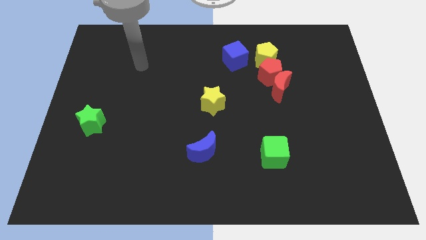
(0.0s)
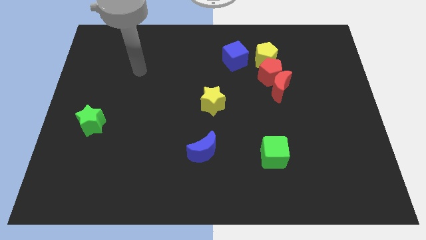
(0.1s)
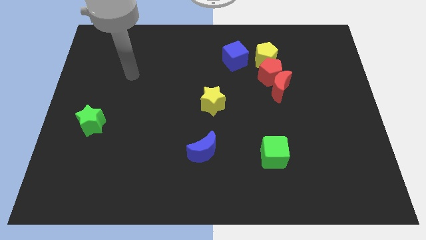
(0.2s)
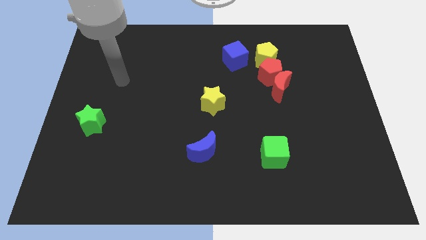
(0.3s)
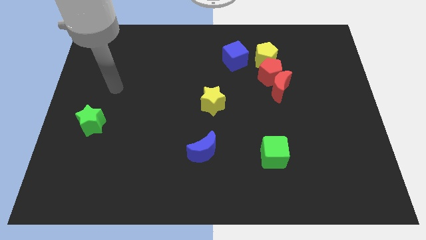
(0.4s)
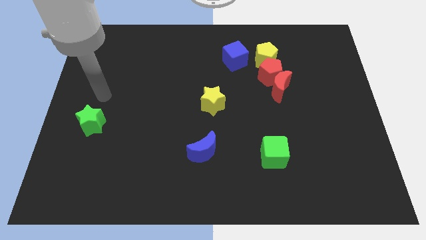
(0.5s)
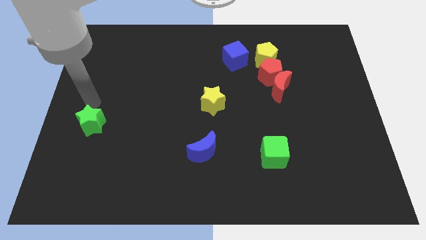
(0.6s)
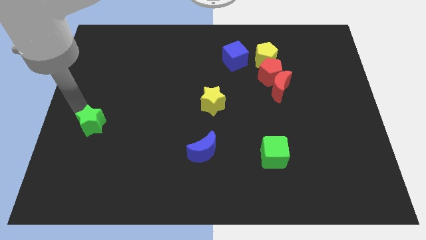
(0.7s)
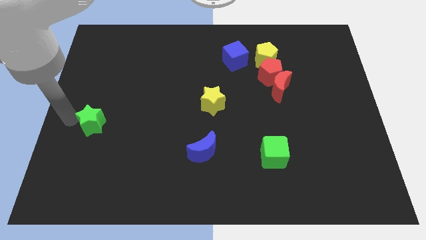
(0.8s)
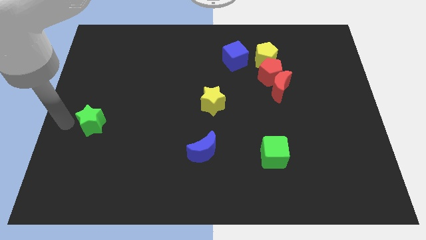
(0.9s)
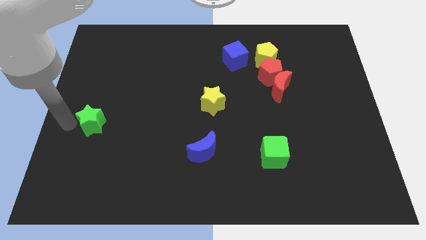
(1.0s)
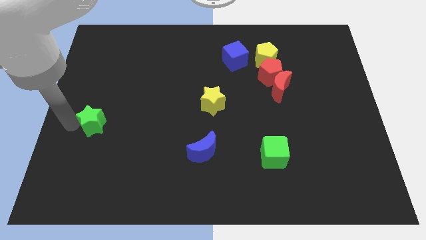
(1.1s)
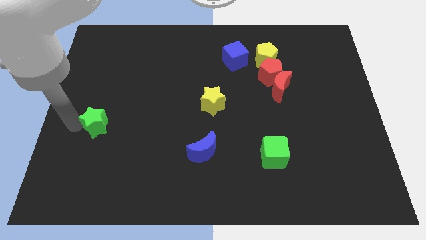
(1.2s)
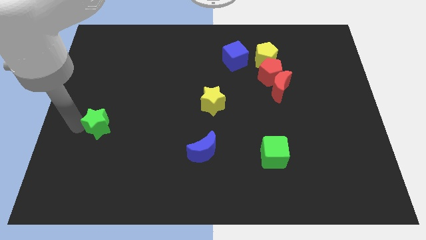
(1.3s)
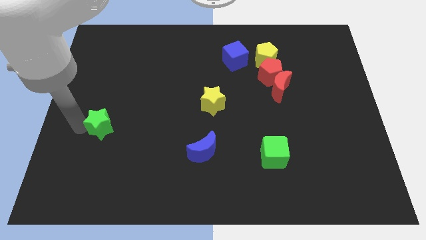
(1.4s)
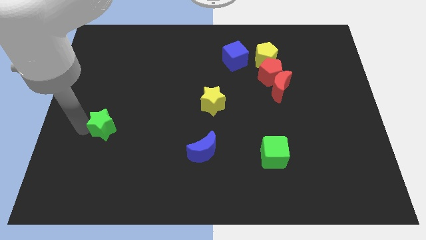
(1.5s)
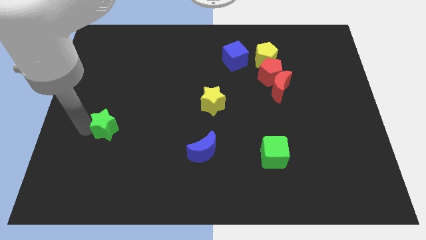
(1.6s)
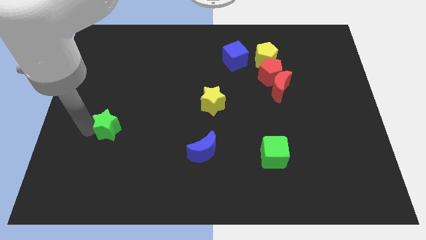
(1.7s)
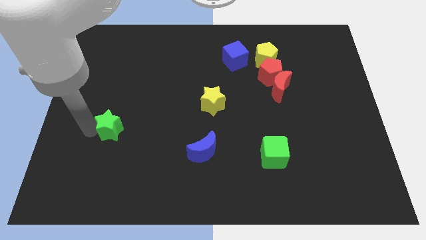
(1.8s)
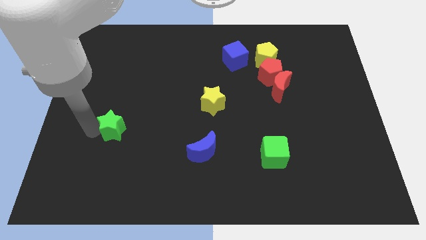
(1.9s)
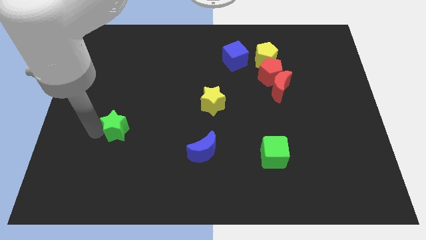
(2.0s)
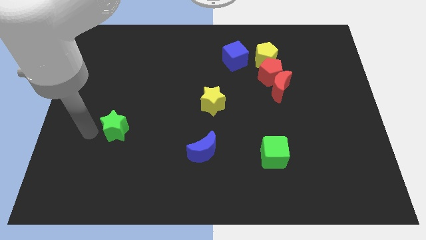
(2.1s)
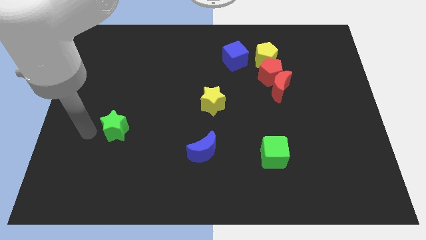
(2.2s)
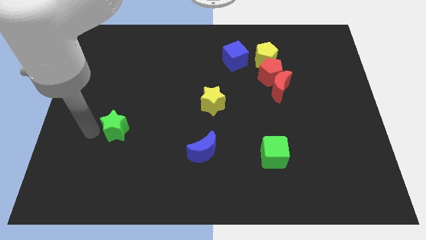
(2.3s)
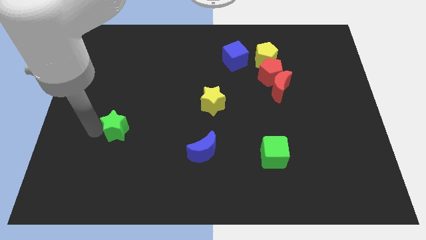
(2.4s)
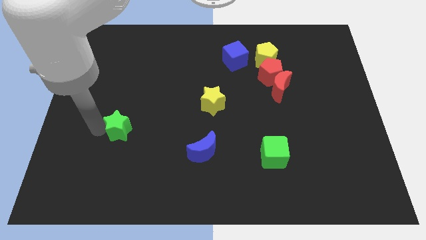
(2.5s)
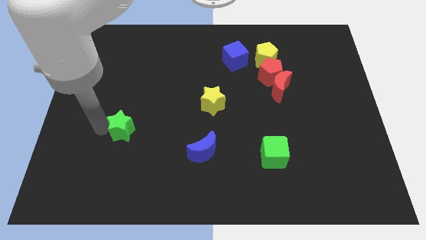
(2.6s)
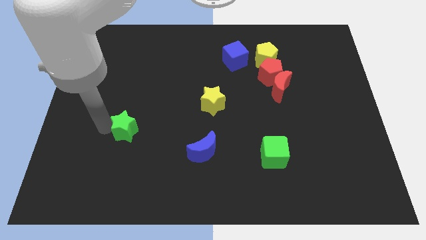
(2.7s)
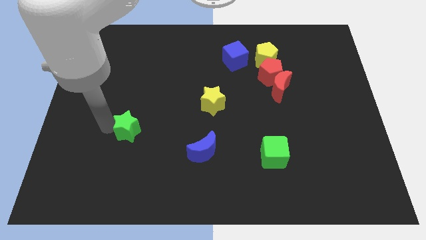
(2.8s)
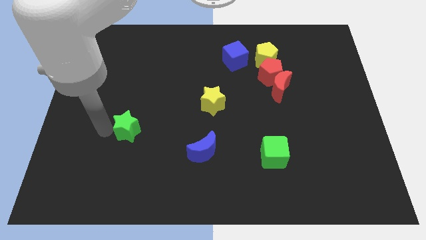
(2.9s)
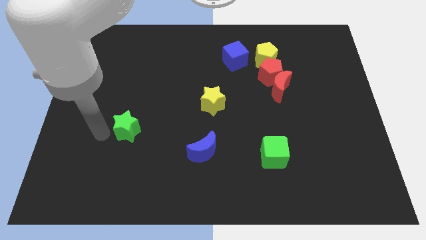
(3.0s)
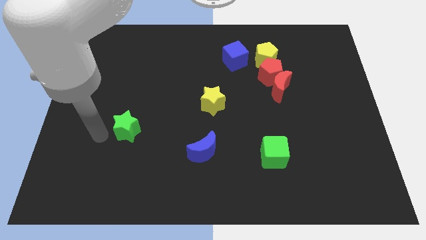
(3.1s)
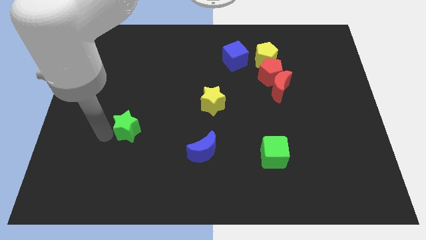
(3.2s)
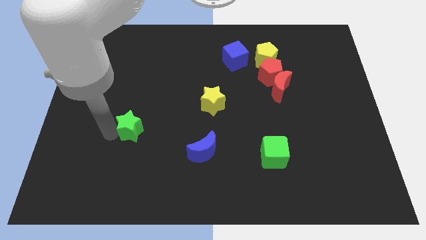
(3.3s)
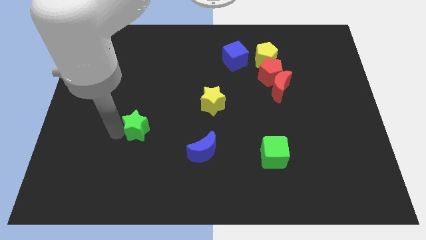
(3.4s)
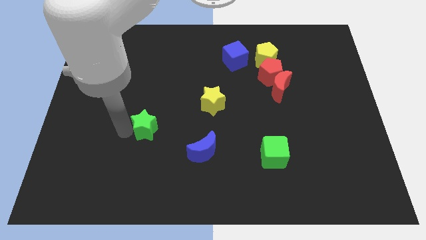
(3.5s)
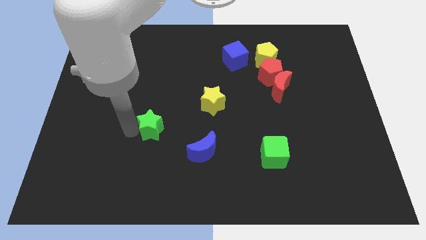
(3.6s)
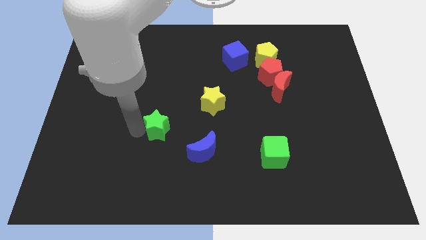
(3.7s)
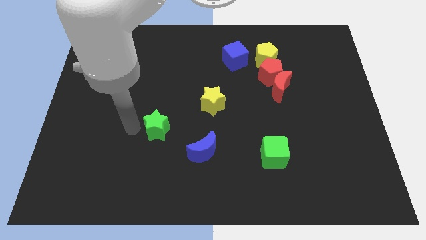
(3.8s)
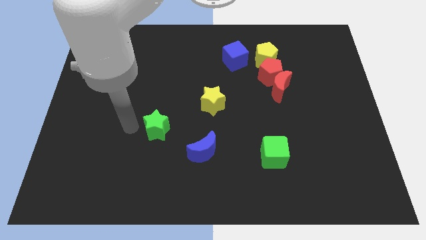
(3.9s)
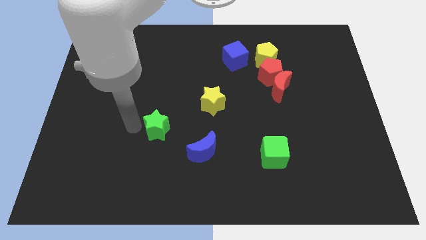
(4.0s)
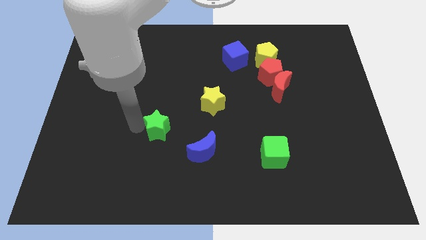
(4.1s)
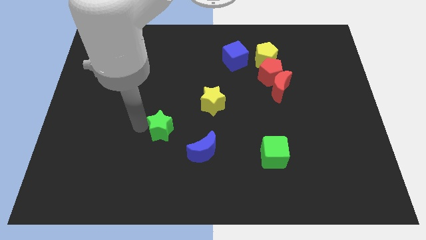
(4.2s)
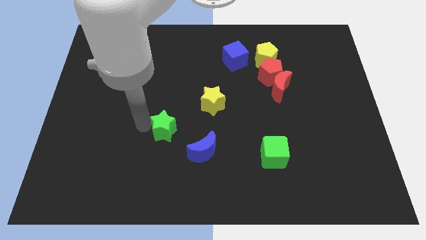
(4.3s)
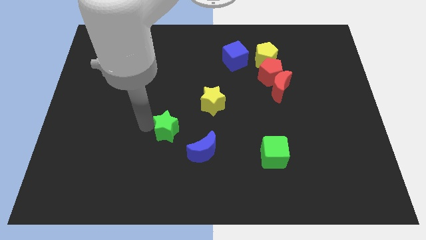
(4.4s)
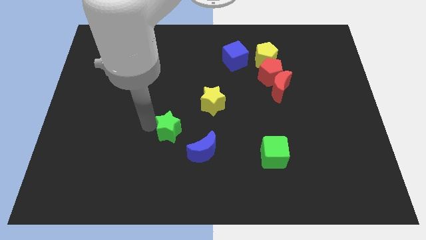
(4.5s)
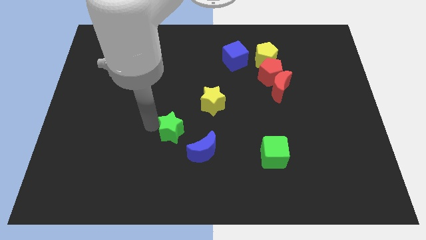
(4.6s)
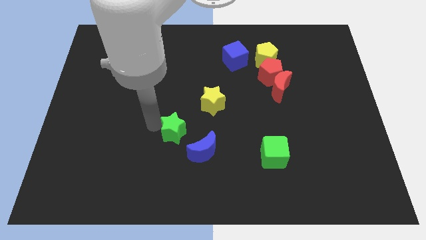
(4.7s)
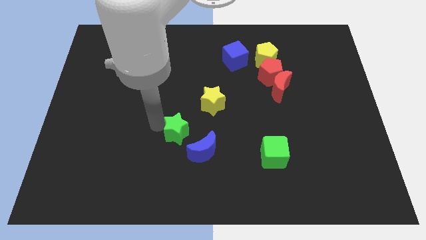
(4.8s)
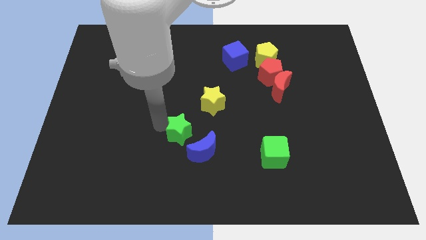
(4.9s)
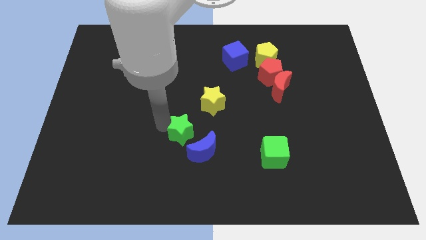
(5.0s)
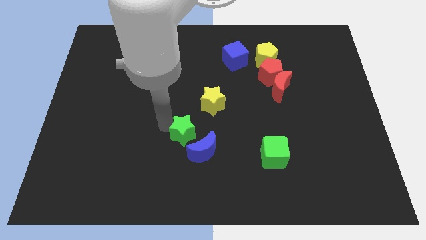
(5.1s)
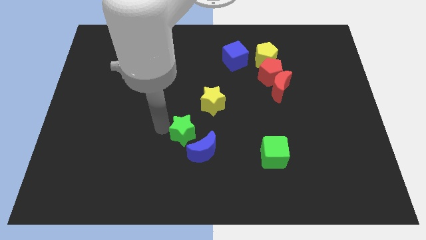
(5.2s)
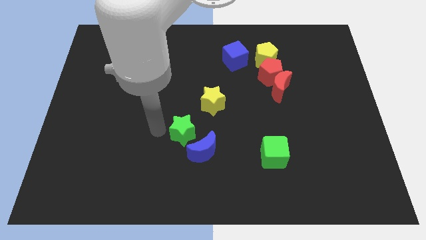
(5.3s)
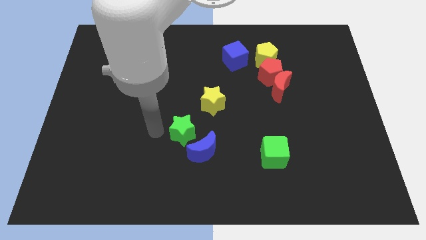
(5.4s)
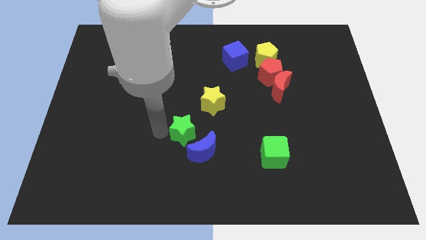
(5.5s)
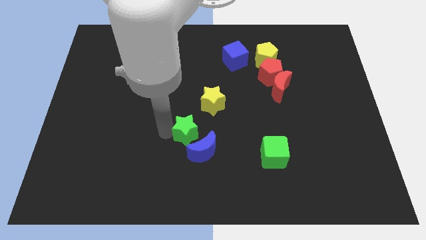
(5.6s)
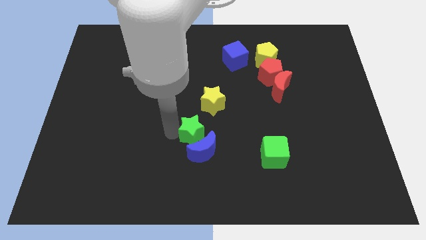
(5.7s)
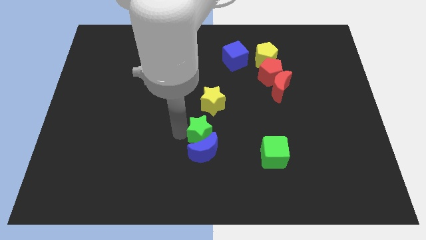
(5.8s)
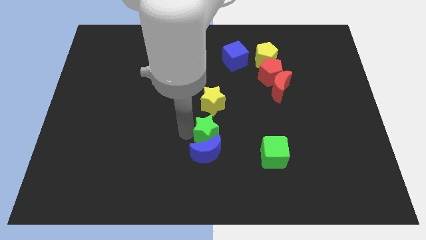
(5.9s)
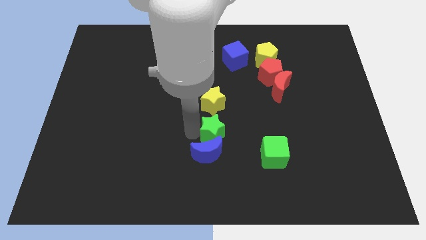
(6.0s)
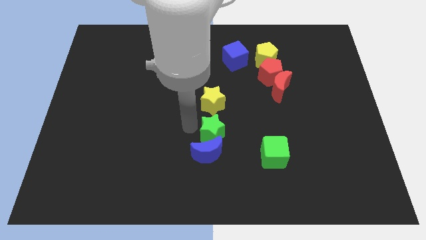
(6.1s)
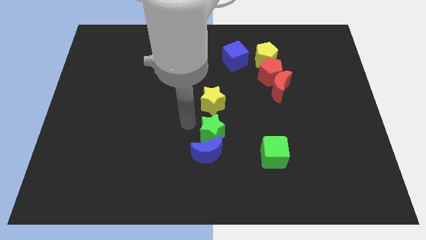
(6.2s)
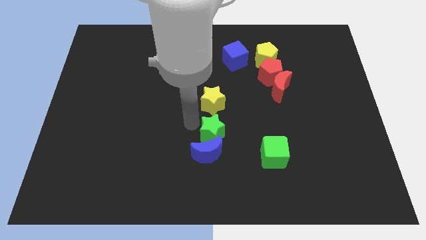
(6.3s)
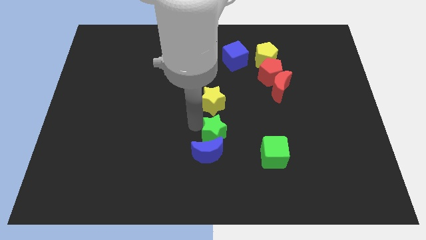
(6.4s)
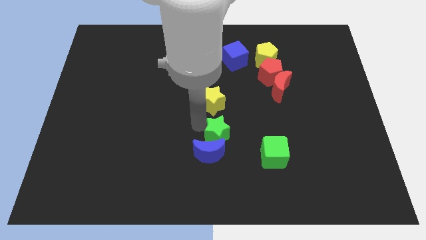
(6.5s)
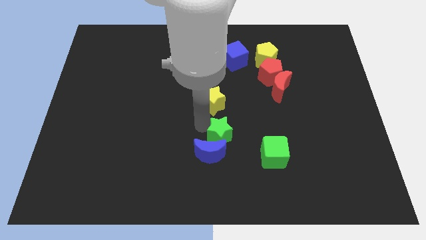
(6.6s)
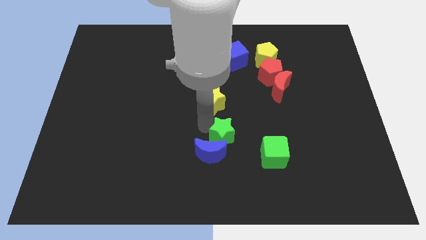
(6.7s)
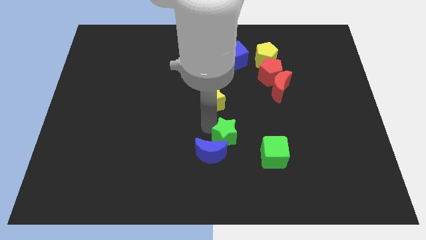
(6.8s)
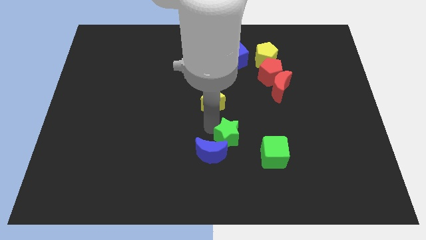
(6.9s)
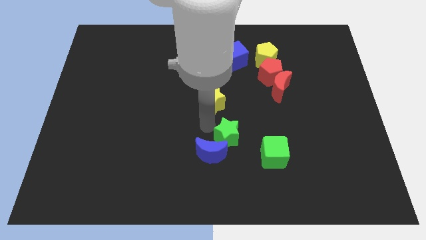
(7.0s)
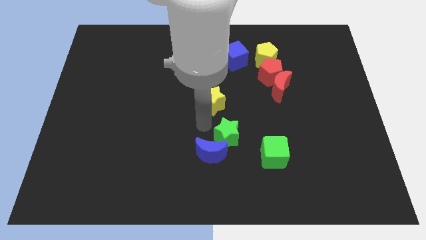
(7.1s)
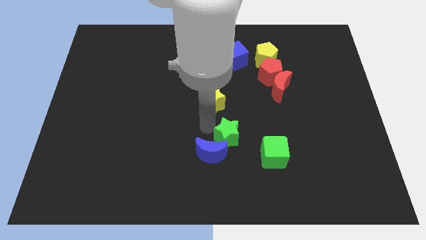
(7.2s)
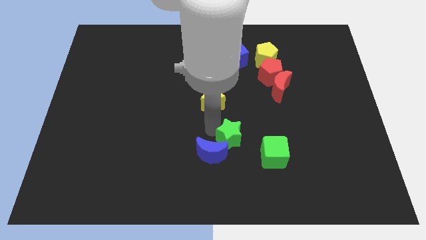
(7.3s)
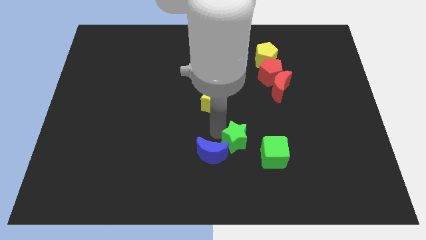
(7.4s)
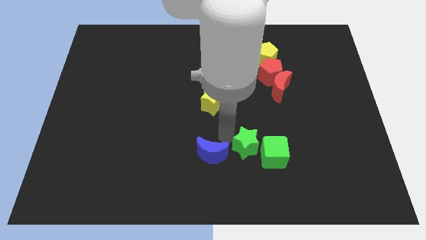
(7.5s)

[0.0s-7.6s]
push the green star close to the green cube

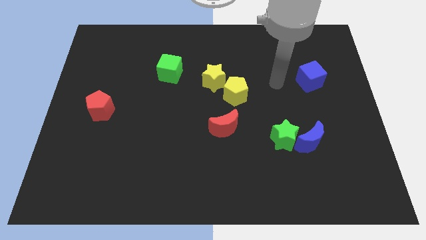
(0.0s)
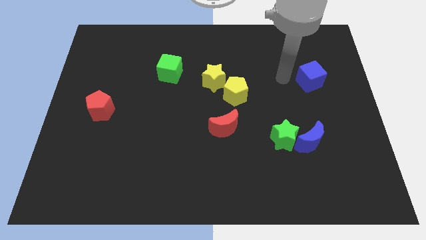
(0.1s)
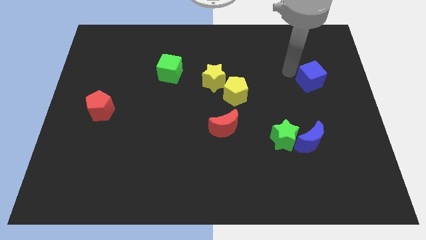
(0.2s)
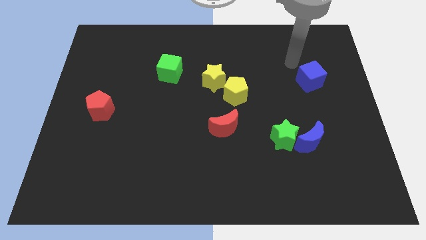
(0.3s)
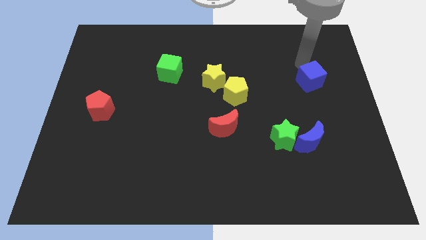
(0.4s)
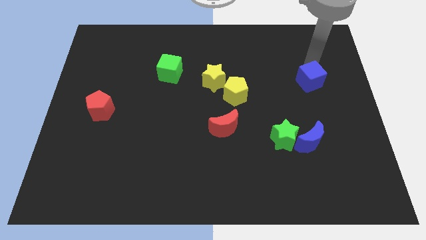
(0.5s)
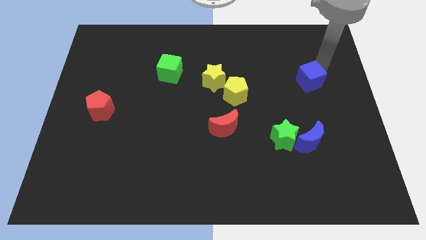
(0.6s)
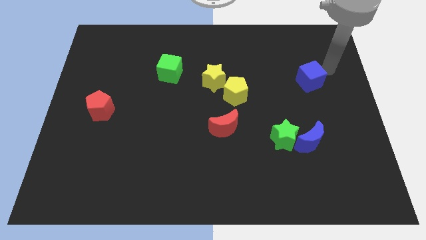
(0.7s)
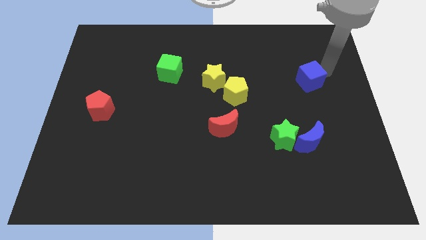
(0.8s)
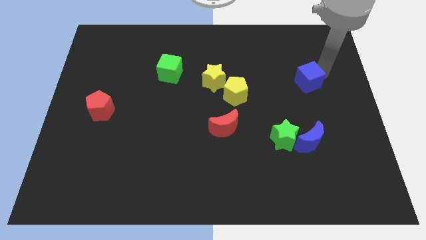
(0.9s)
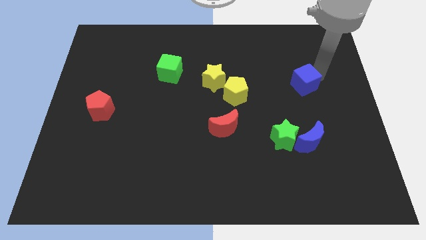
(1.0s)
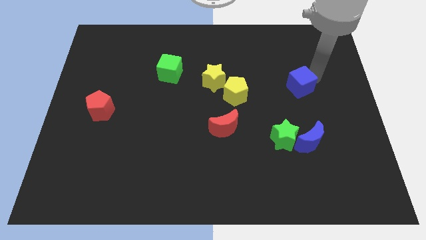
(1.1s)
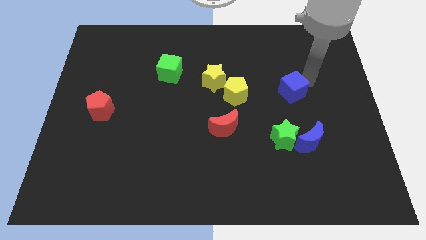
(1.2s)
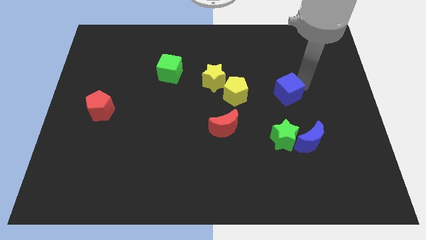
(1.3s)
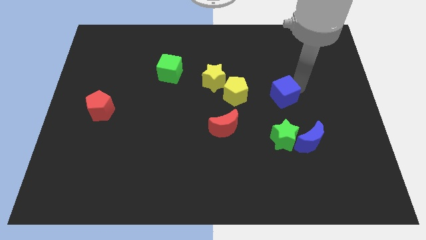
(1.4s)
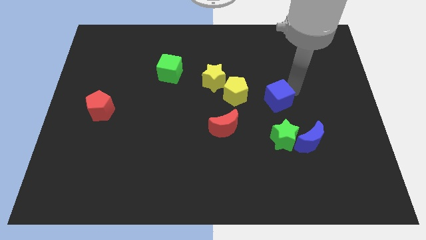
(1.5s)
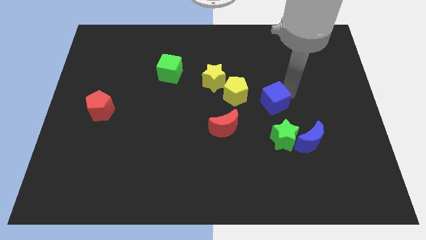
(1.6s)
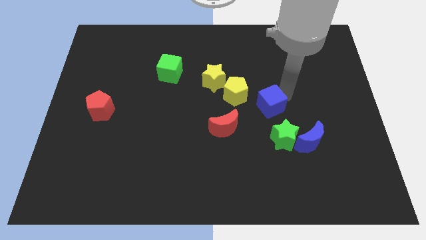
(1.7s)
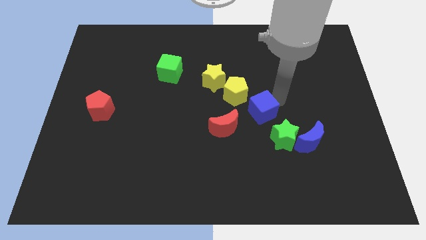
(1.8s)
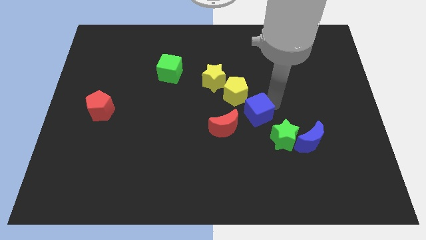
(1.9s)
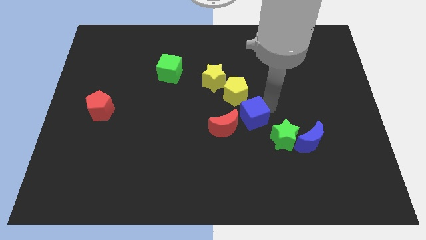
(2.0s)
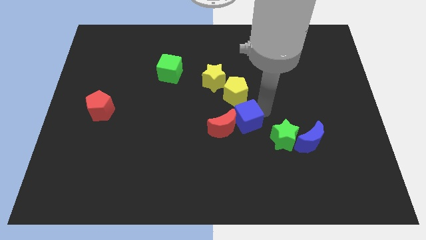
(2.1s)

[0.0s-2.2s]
move the blue cube towards the red moon
